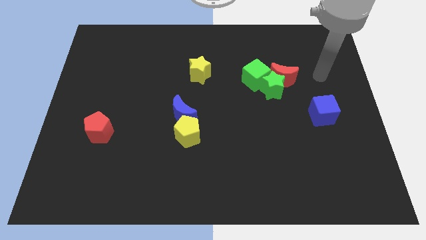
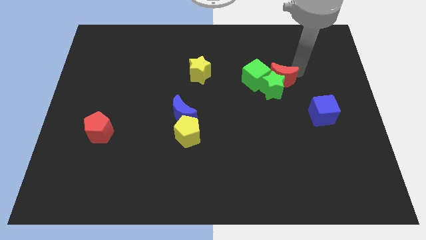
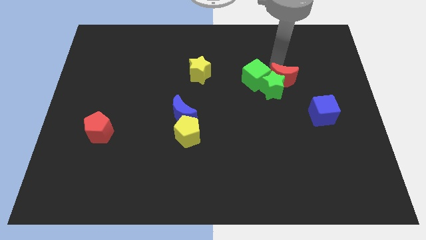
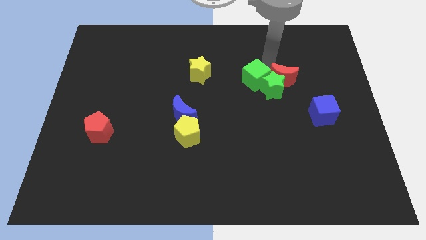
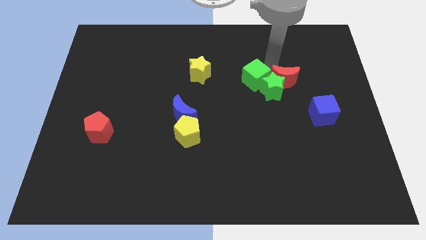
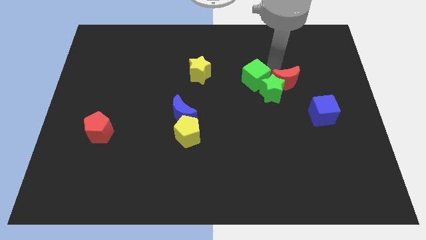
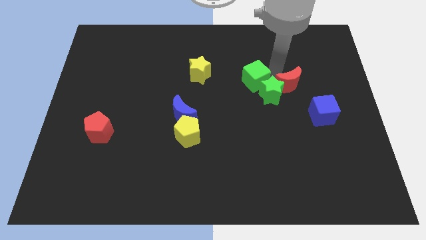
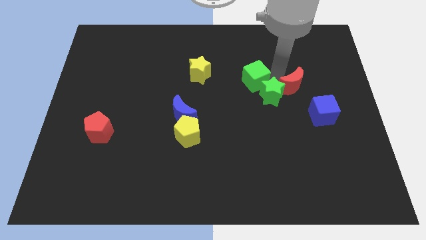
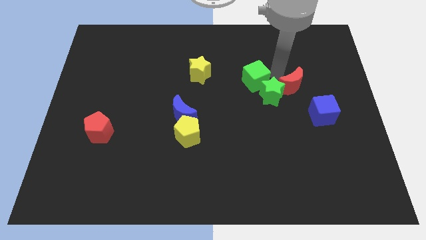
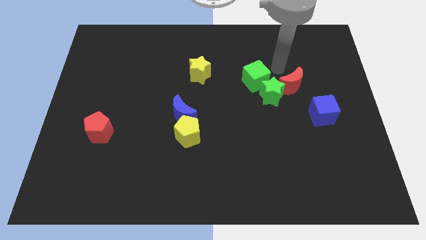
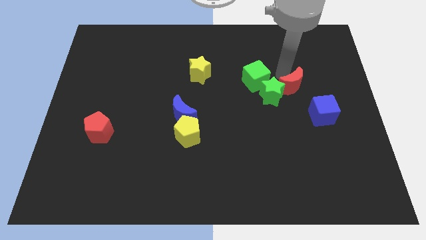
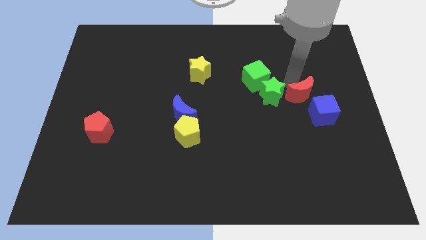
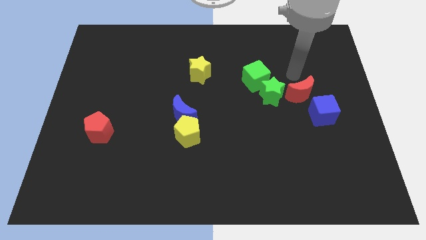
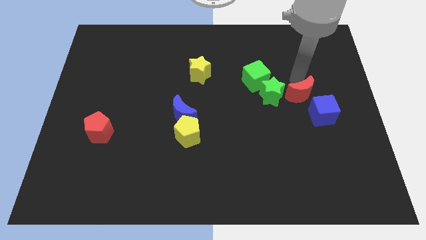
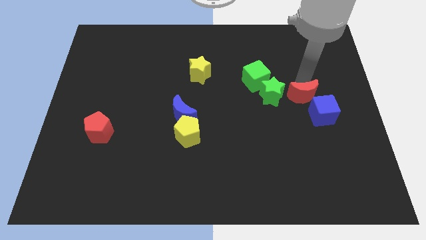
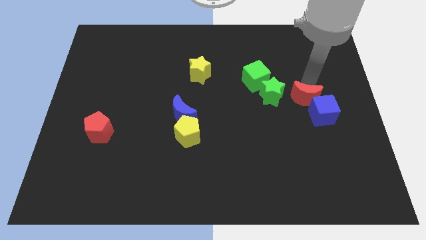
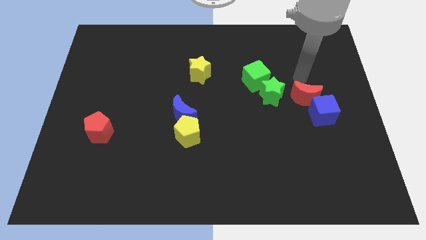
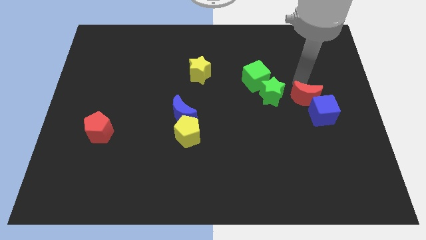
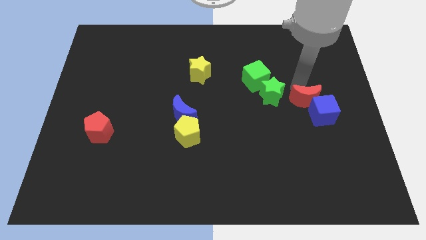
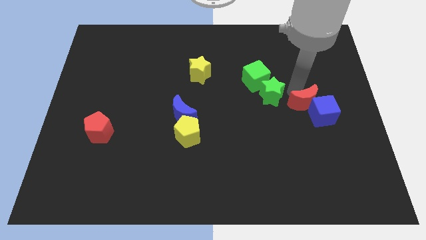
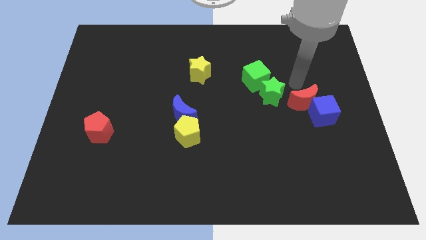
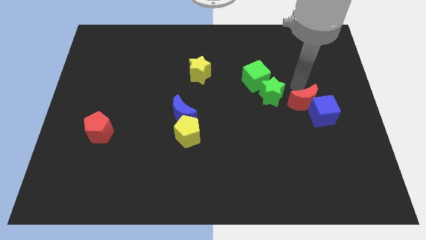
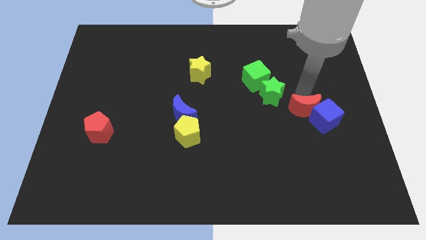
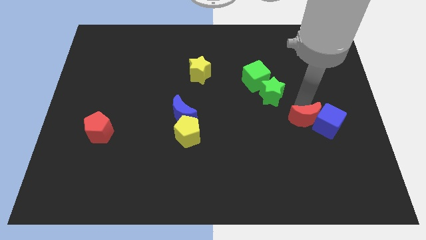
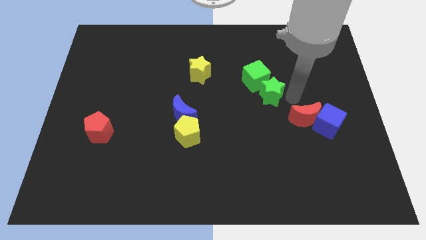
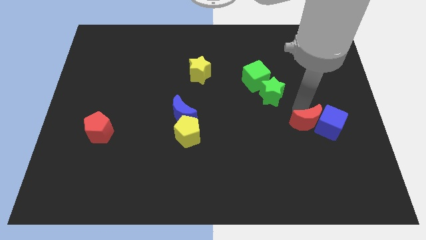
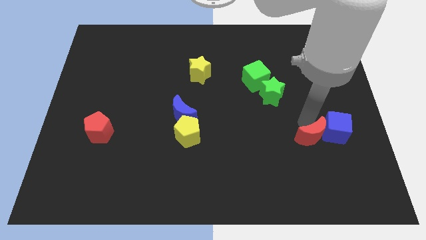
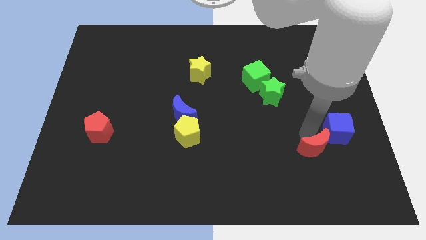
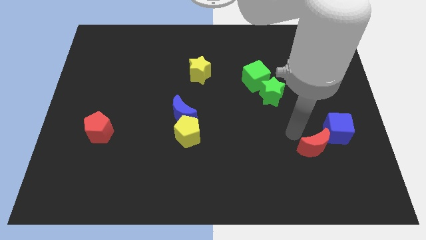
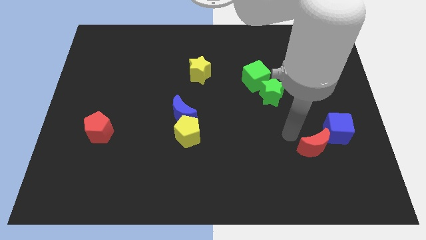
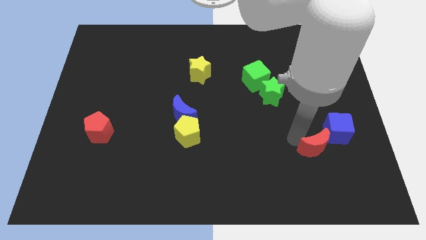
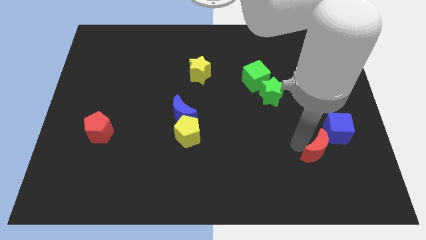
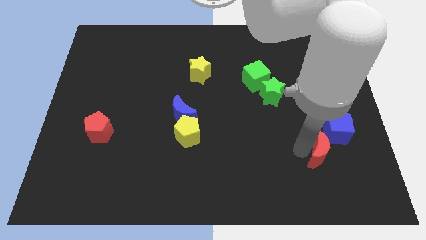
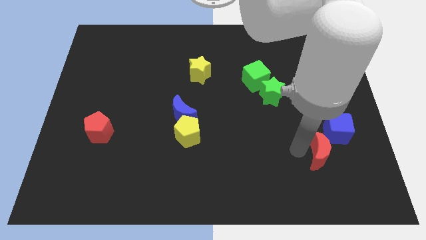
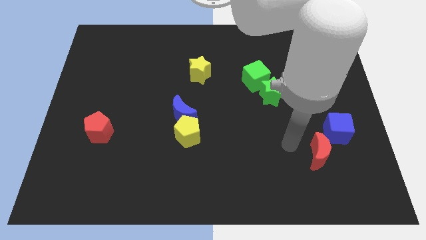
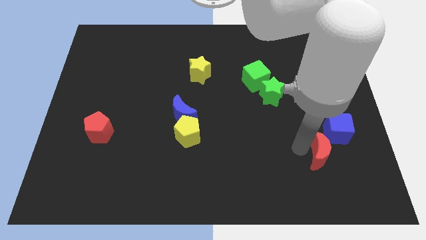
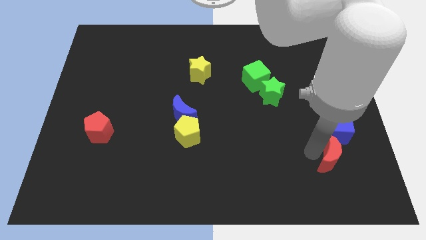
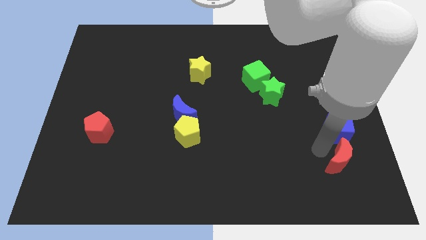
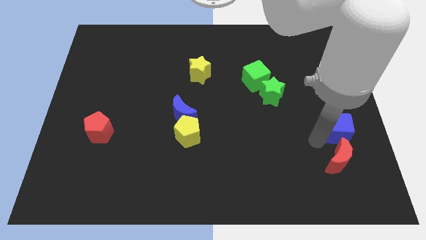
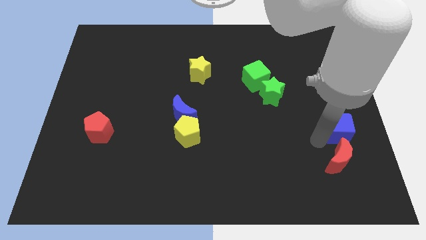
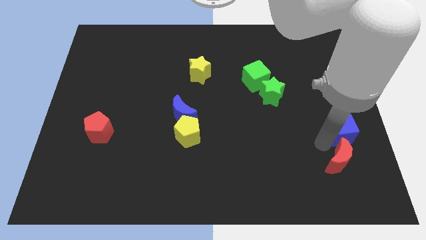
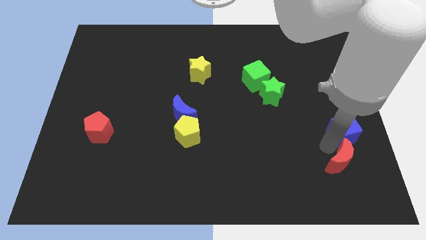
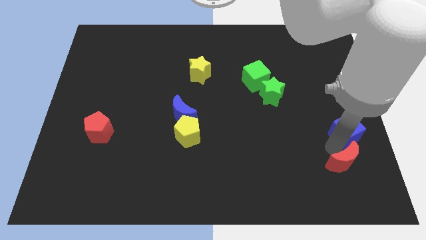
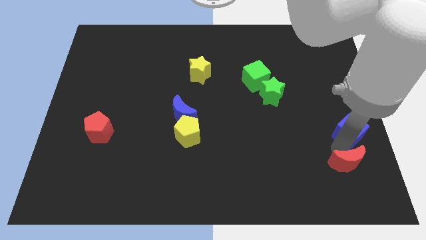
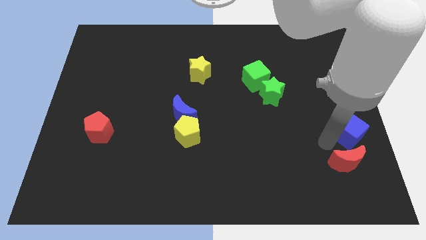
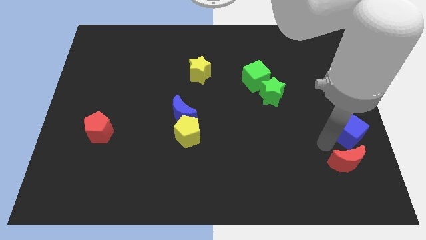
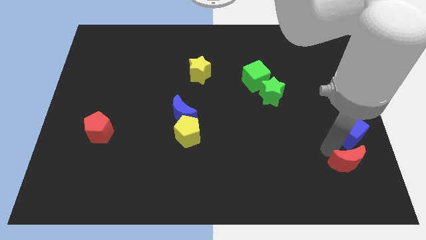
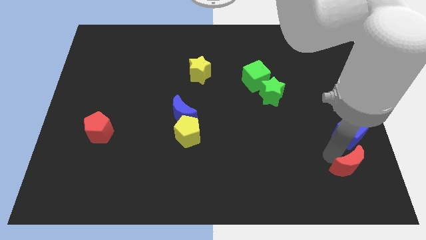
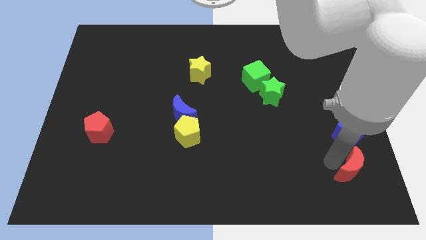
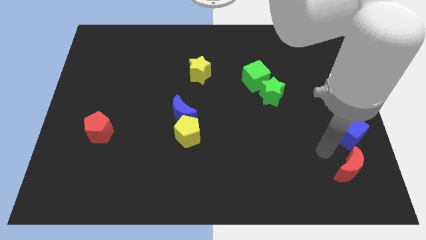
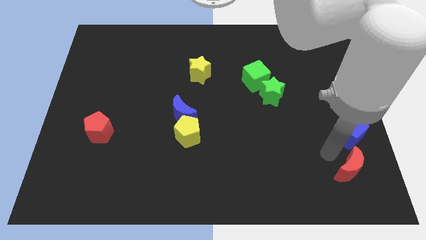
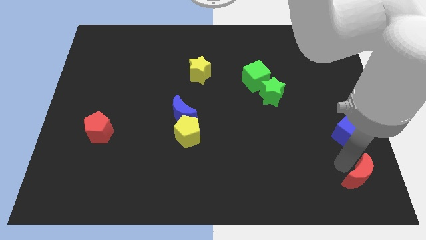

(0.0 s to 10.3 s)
move the red moon to the bottom right

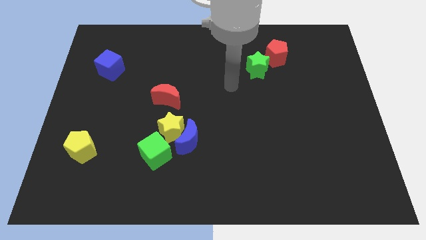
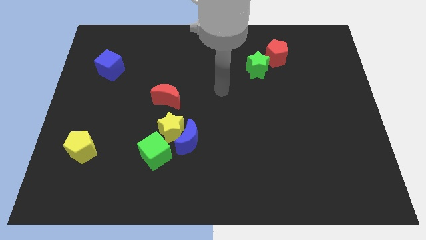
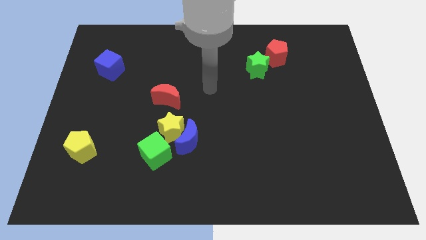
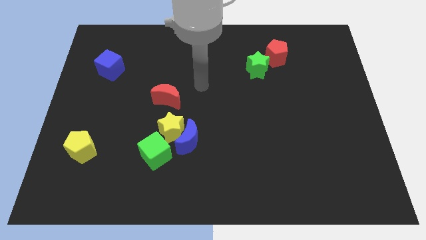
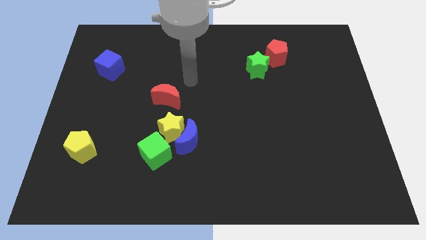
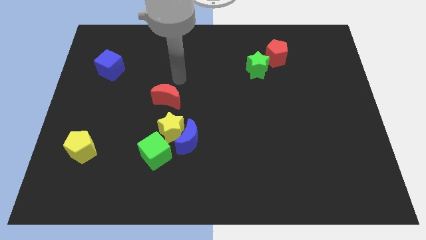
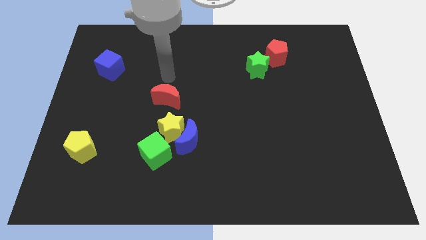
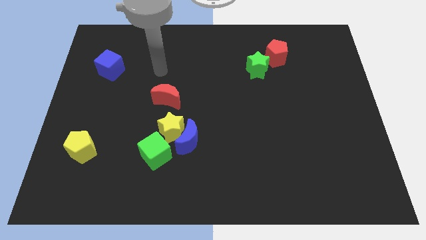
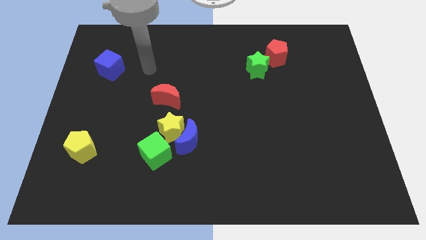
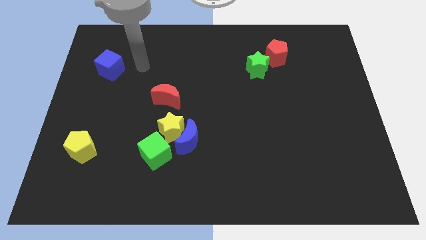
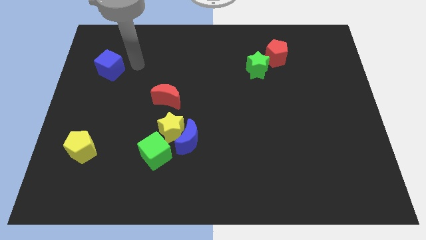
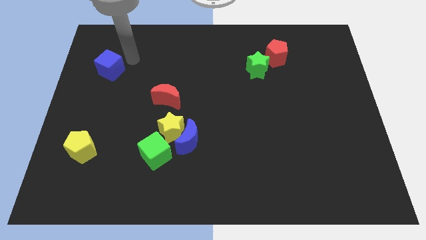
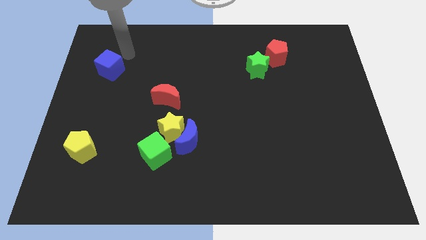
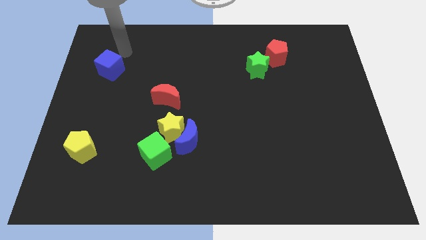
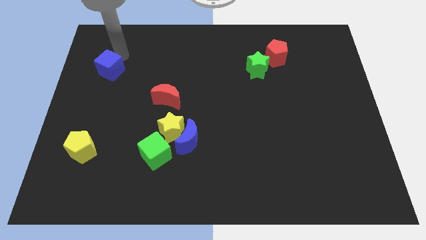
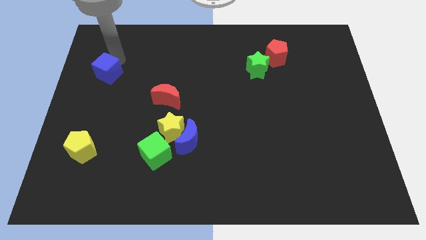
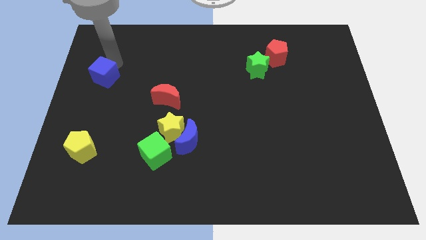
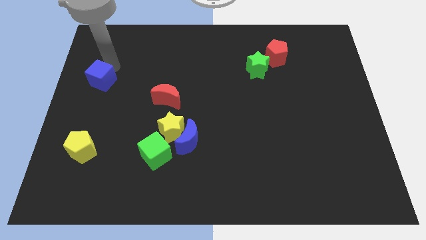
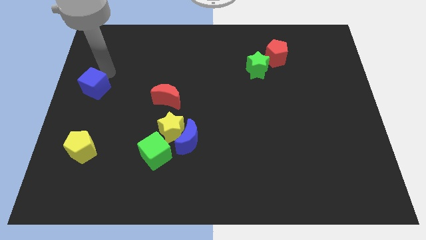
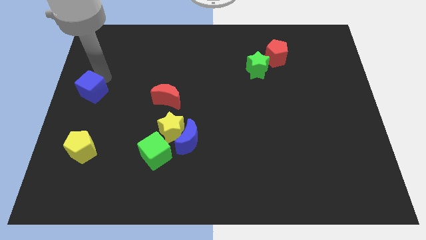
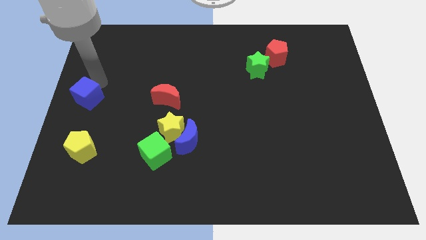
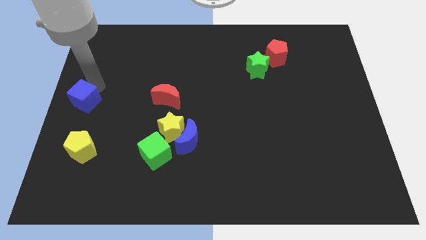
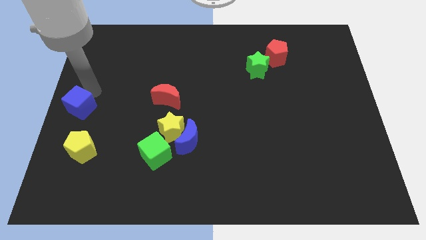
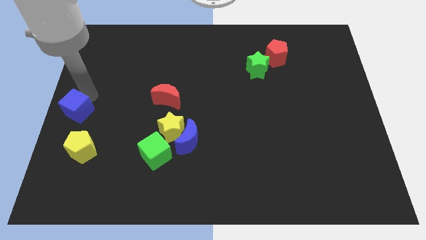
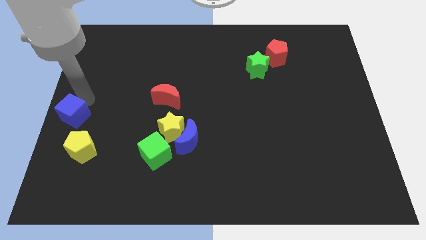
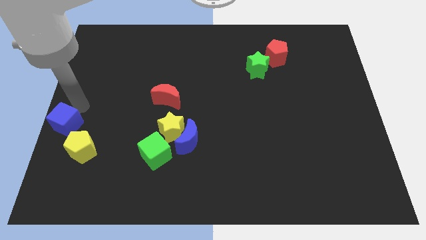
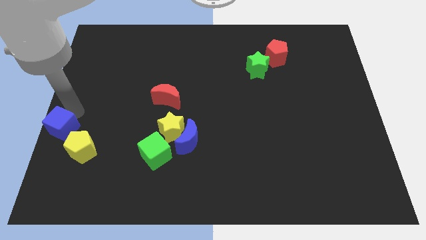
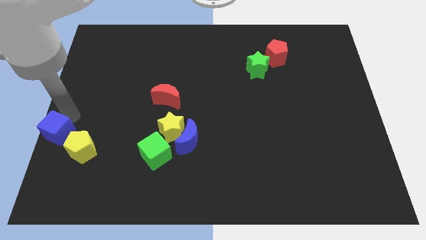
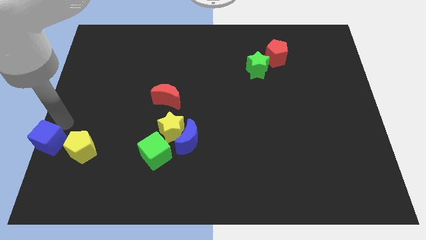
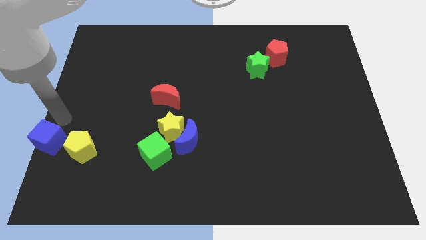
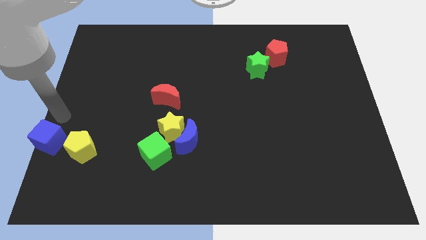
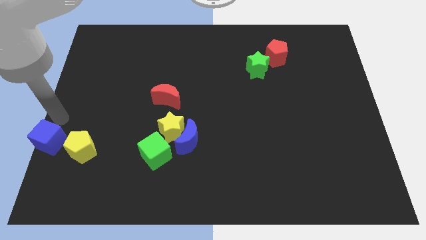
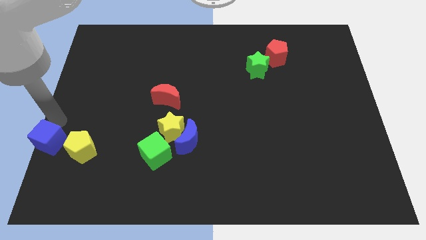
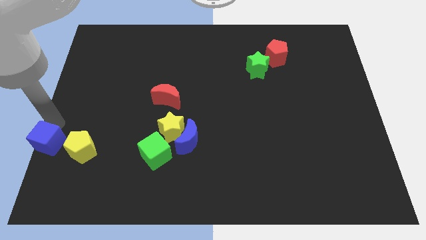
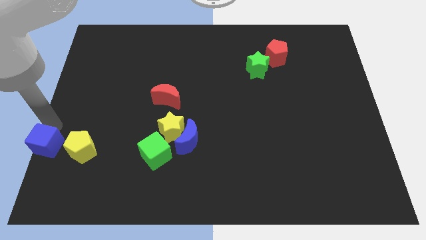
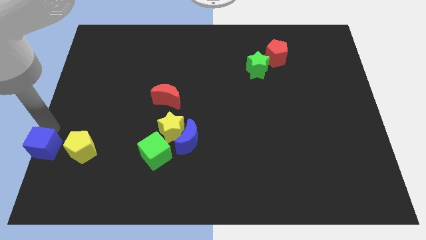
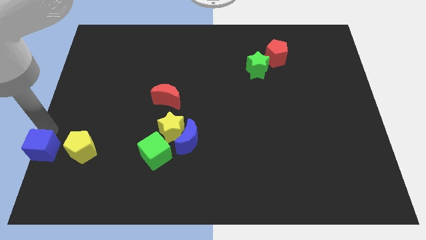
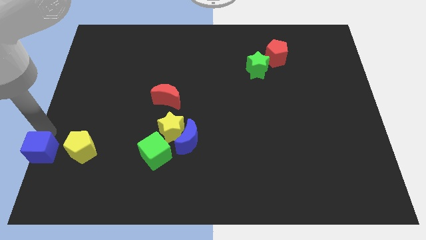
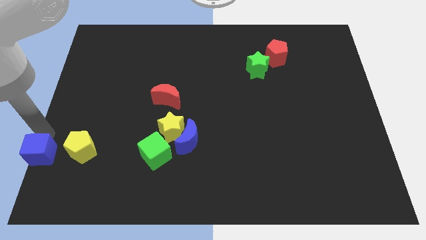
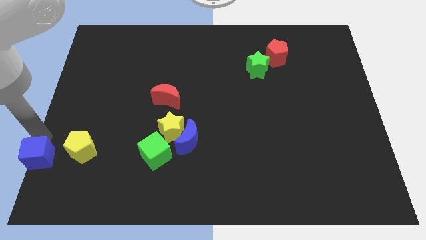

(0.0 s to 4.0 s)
slide the blue cube to the bottom left
